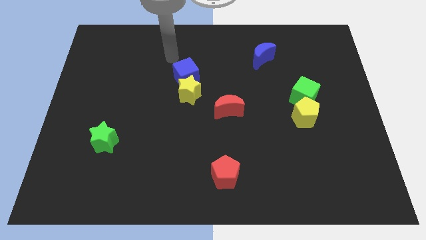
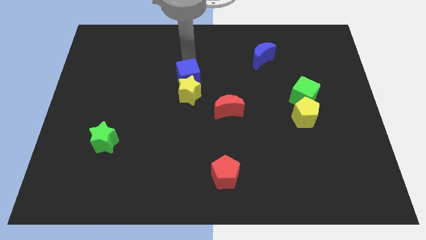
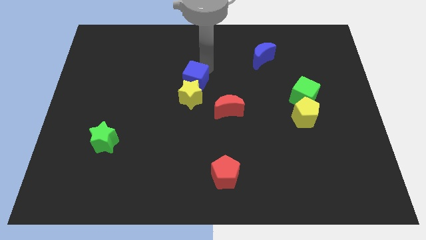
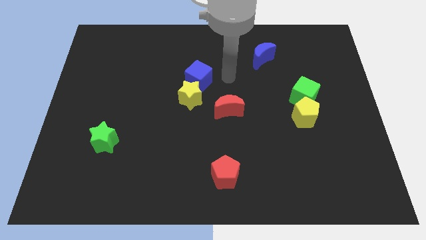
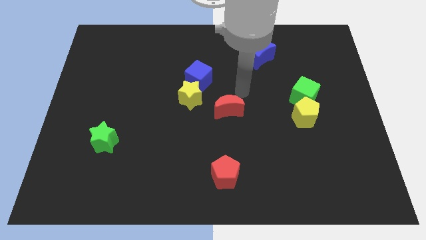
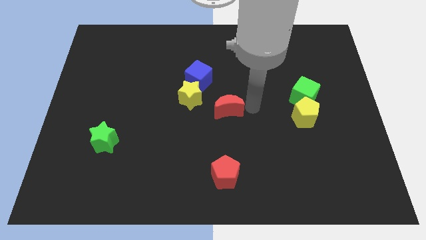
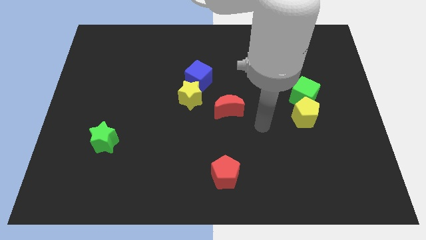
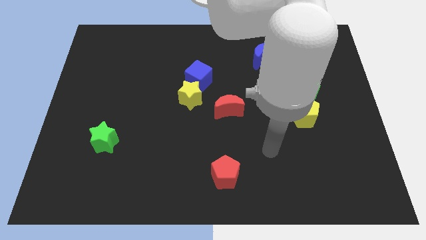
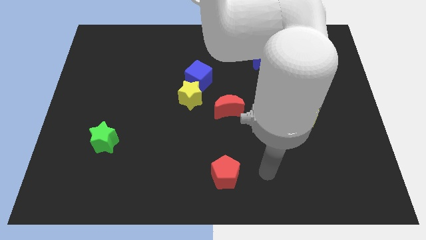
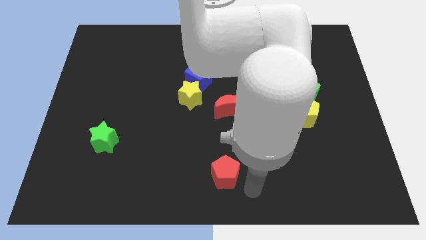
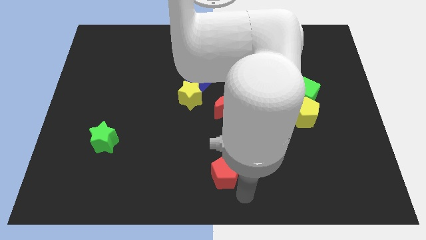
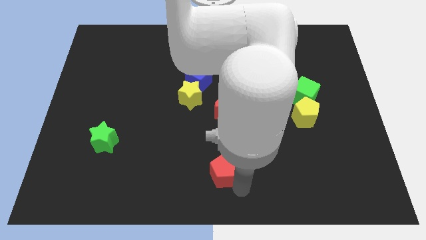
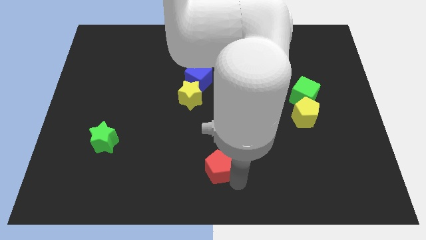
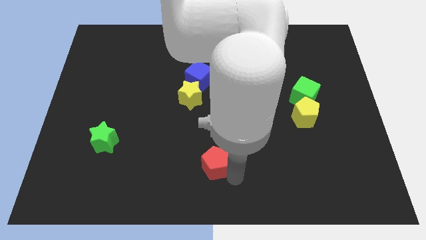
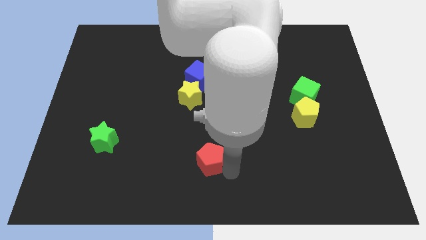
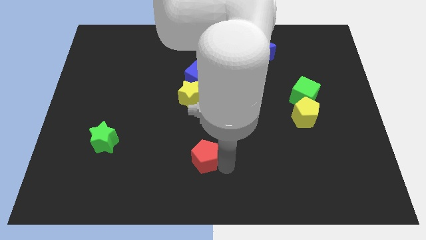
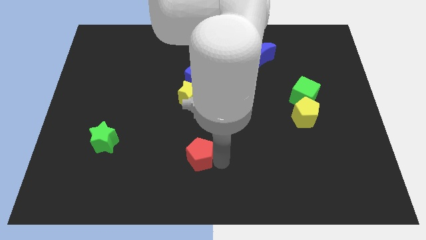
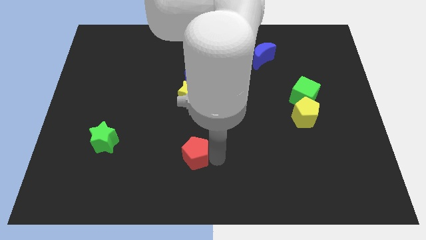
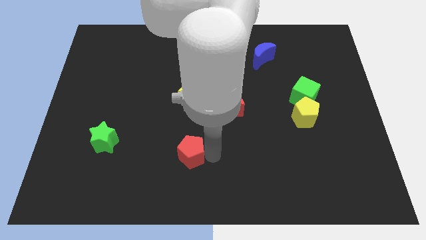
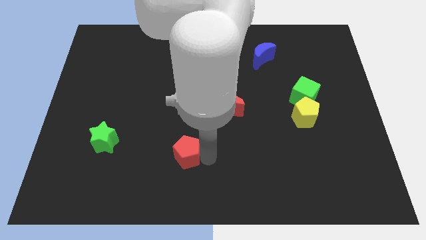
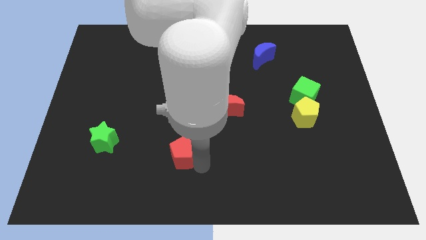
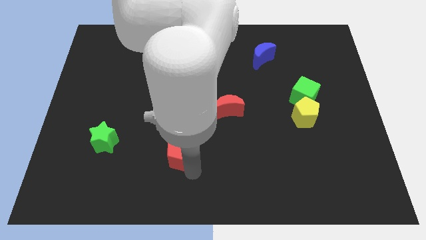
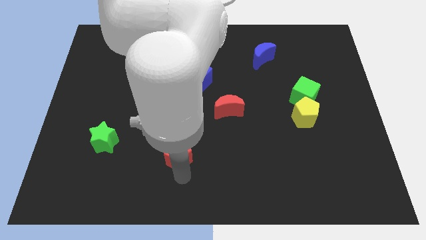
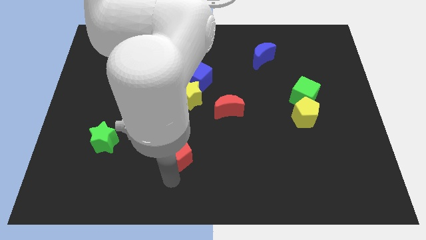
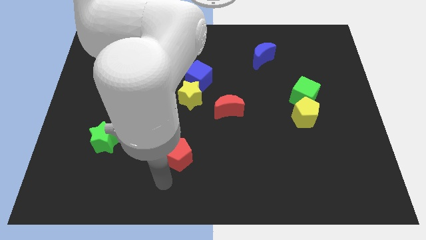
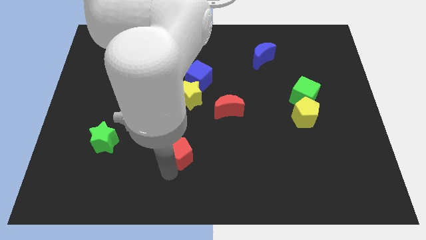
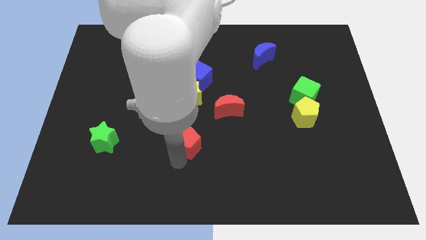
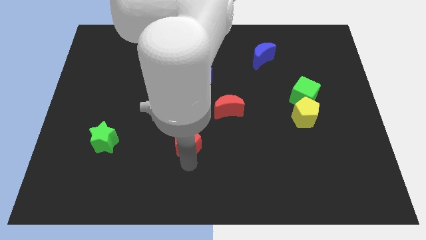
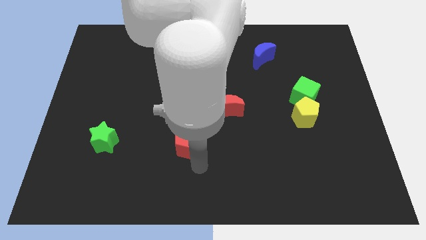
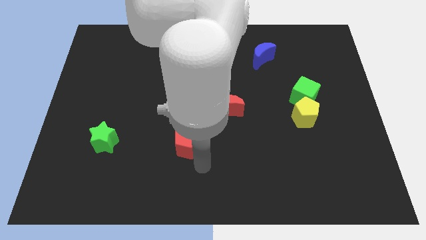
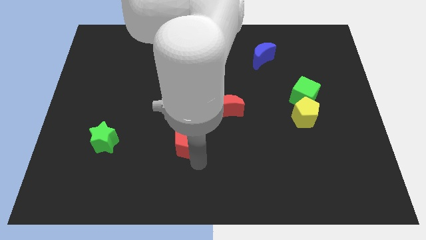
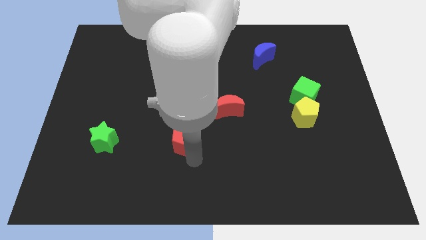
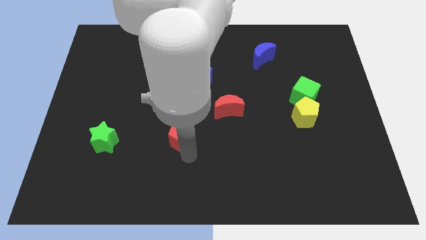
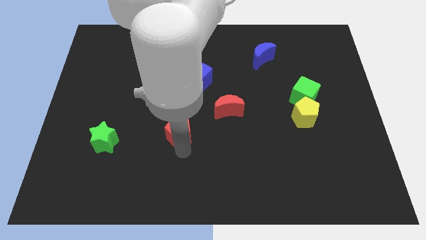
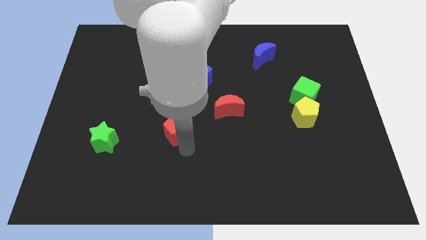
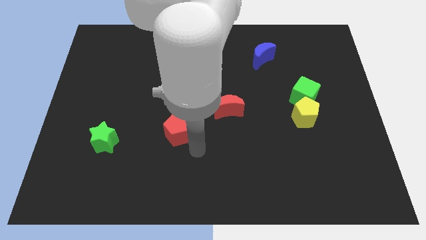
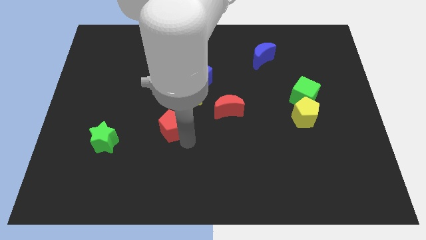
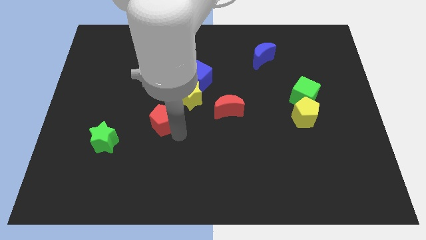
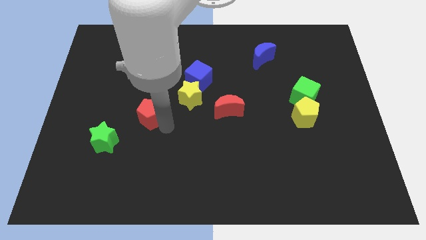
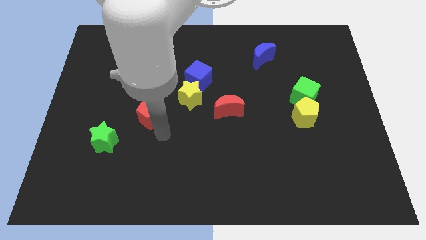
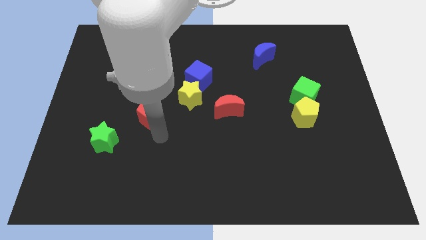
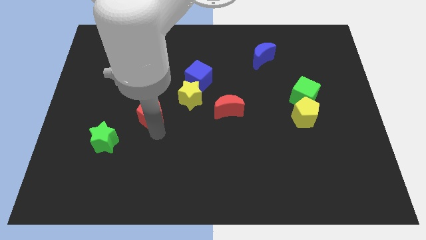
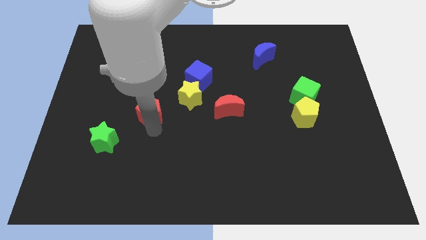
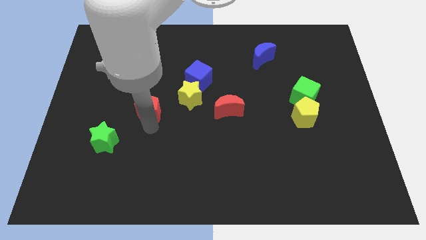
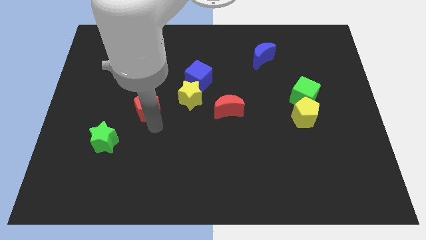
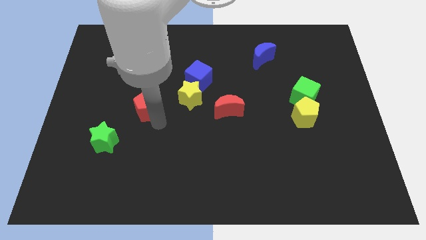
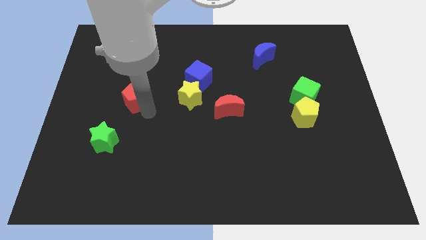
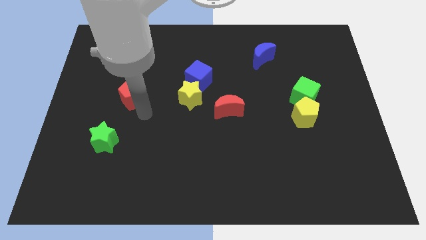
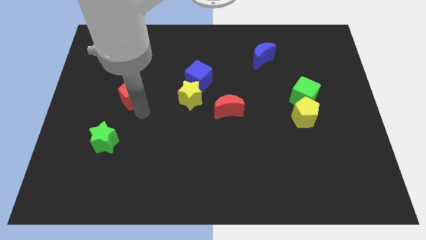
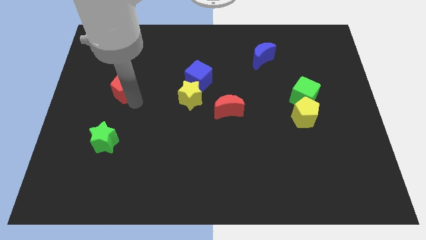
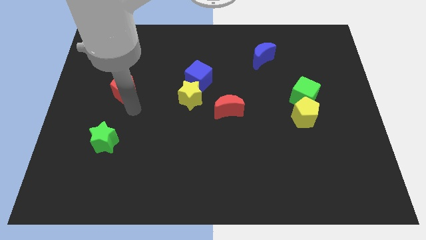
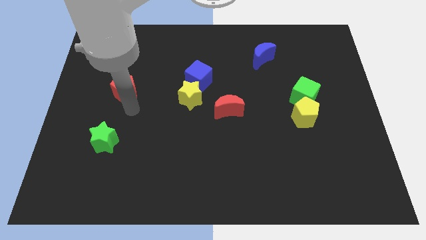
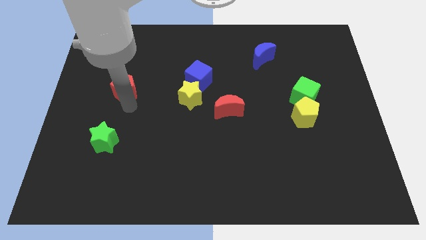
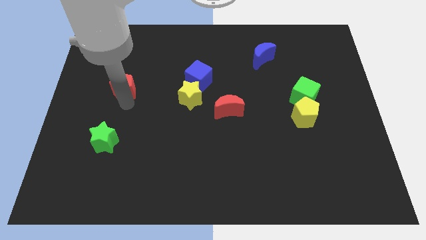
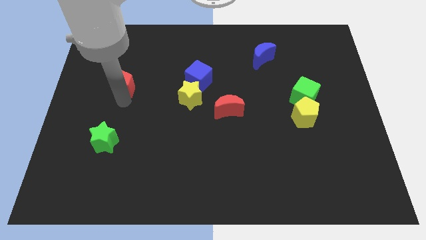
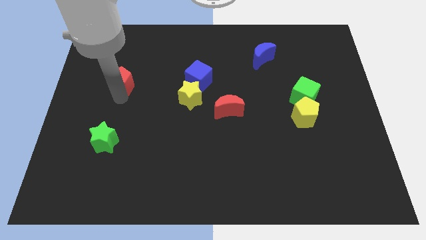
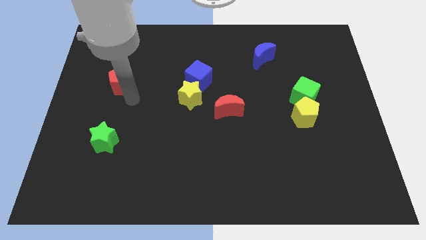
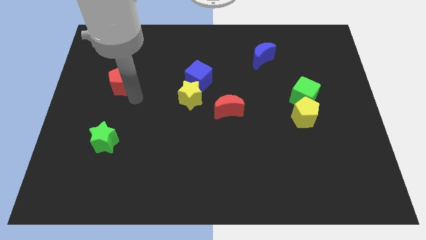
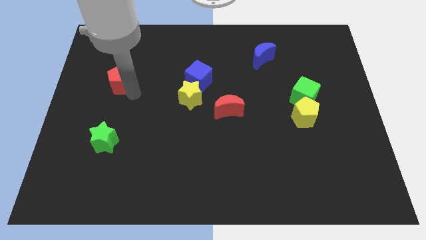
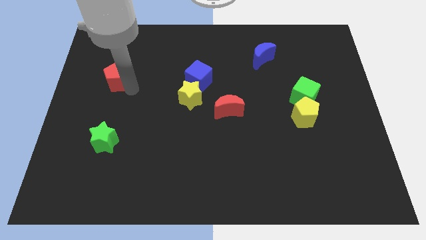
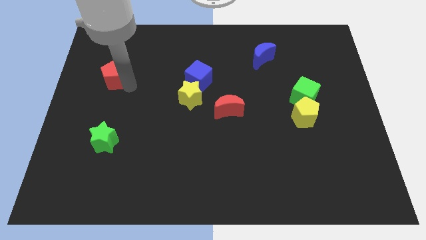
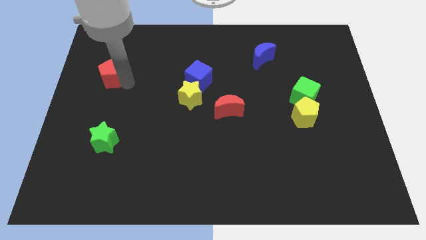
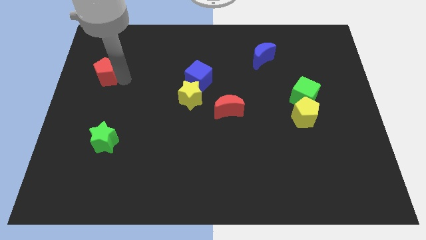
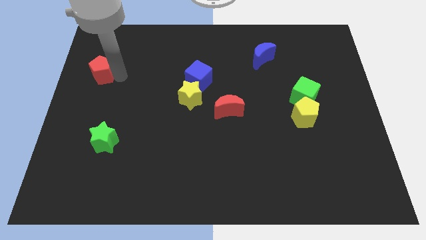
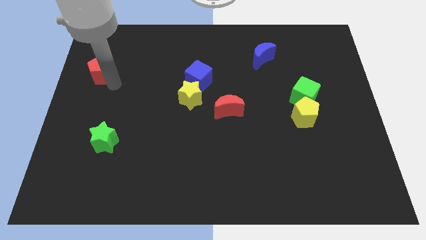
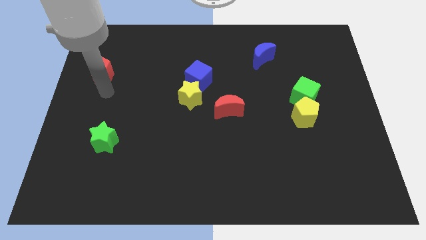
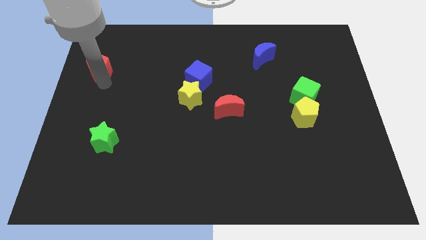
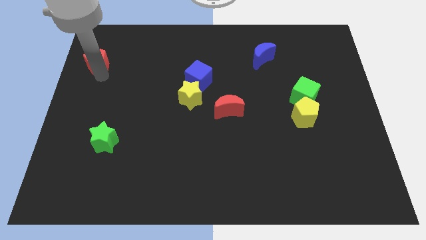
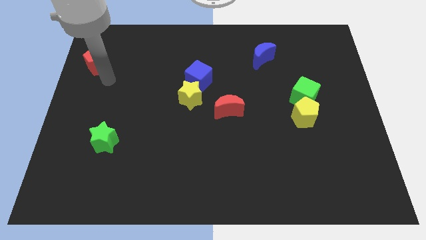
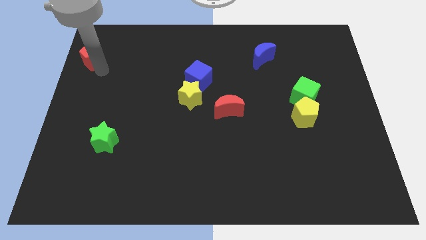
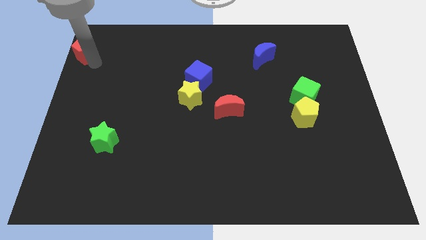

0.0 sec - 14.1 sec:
push the red pentagon to the top left corner
